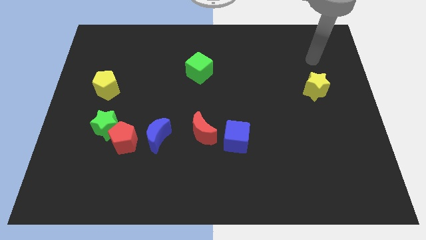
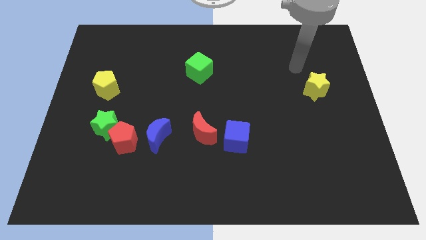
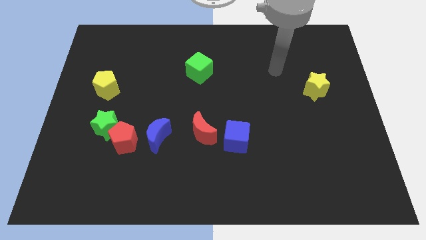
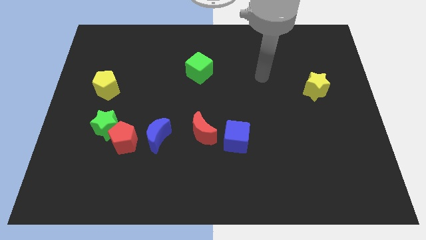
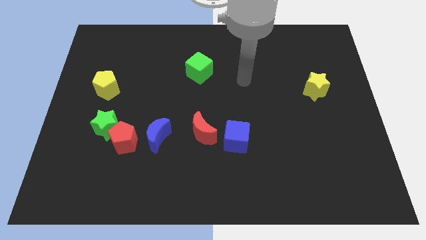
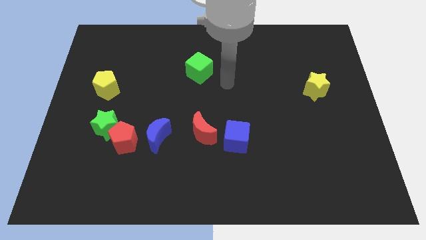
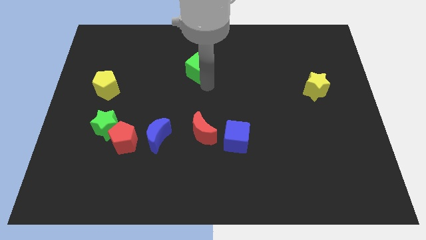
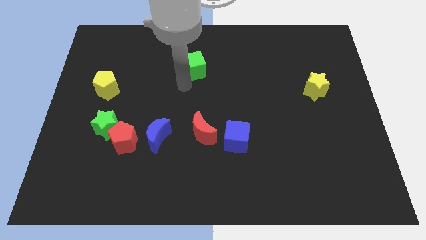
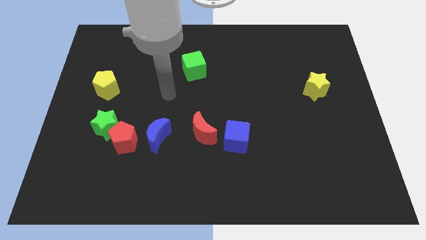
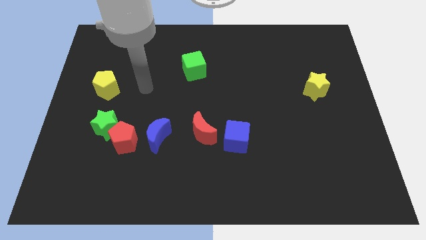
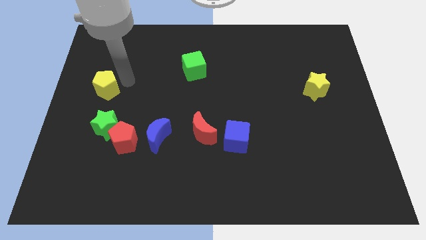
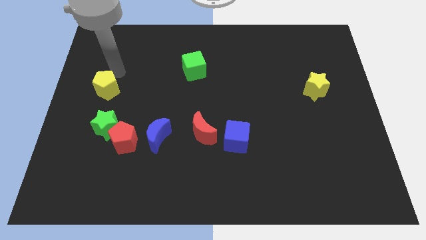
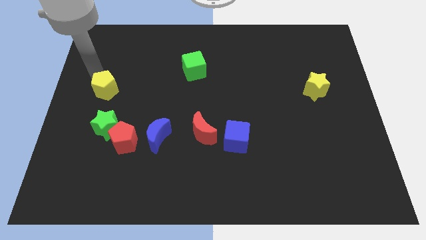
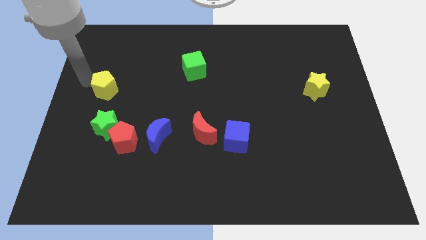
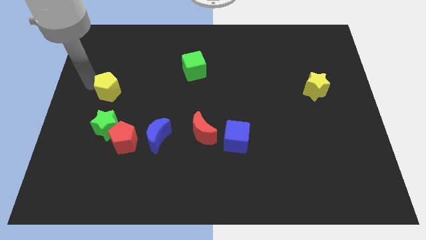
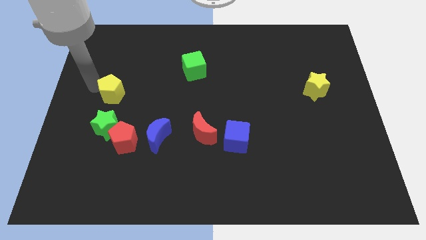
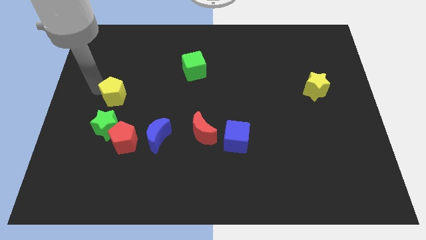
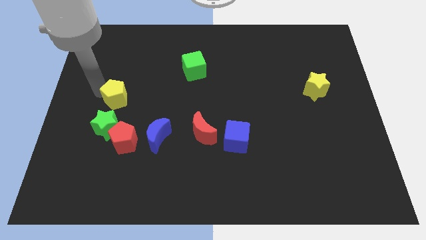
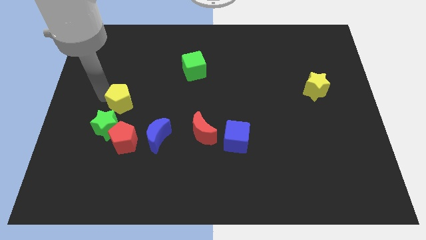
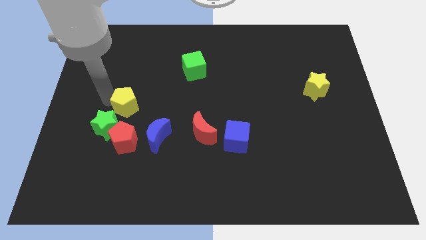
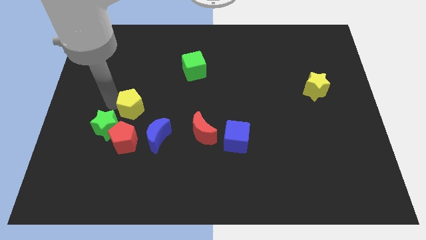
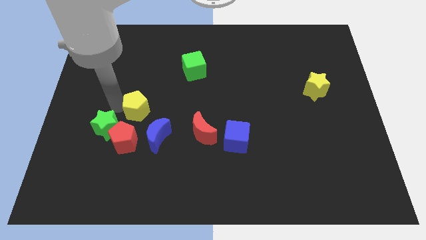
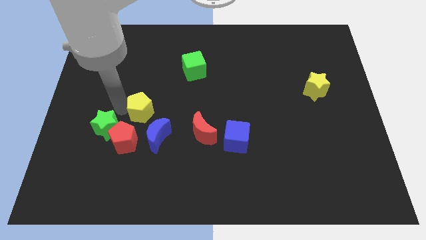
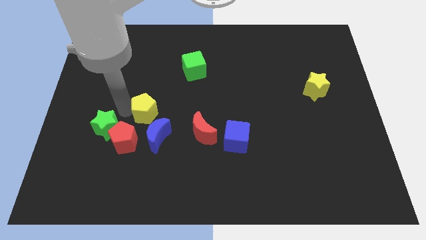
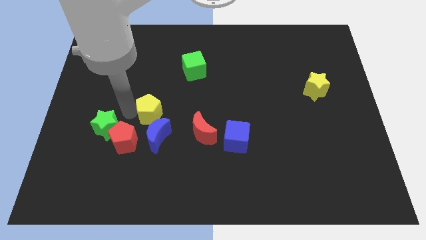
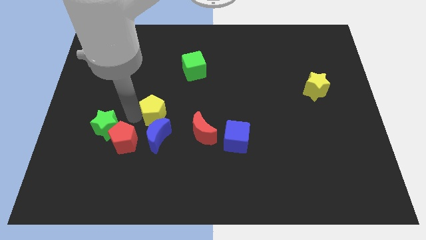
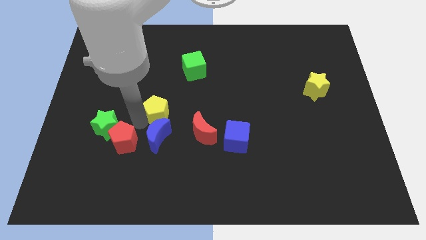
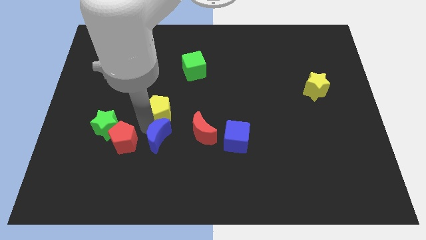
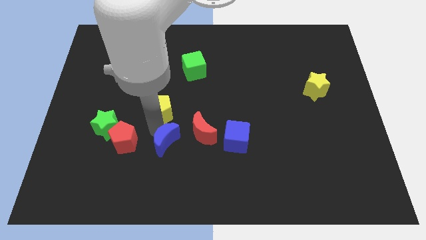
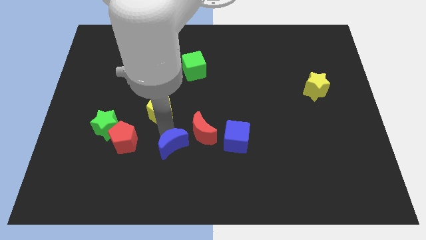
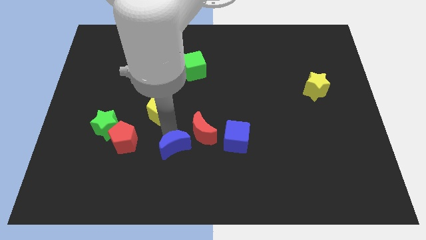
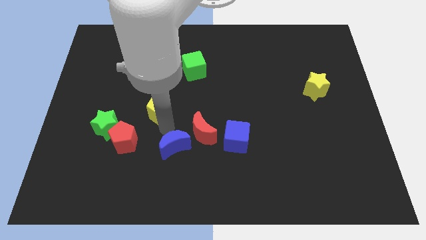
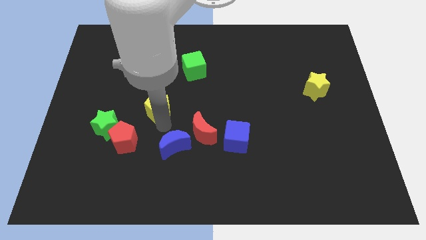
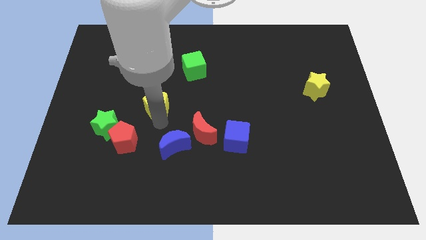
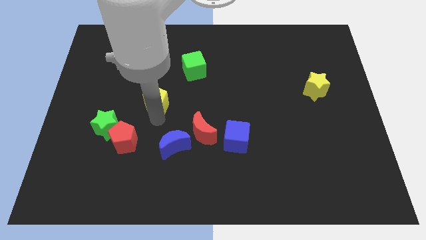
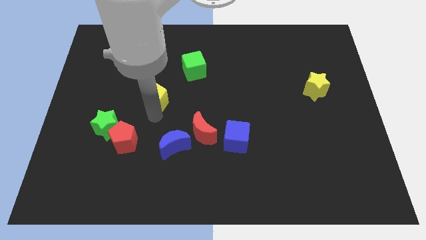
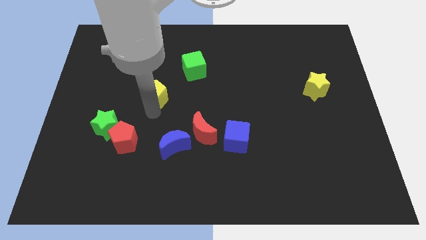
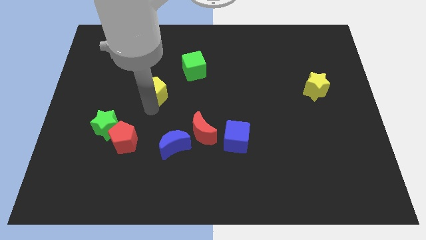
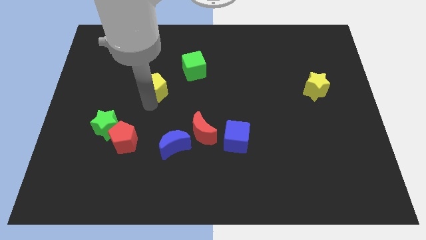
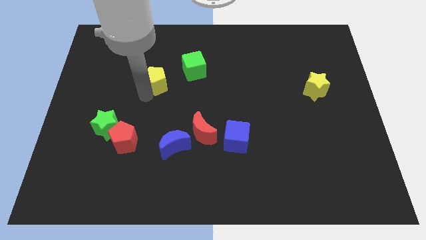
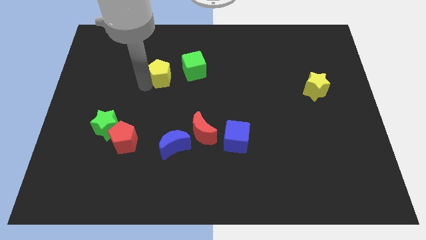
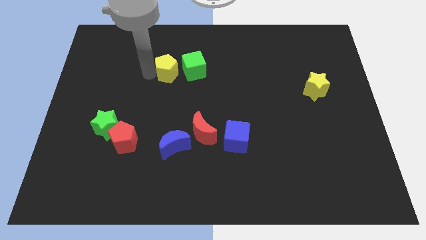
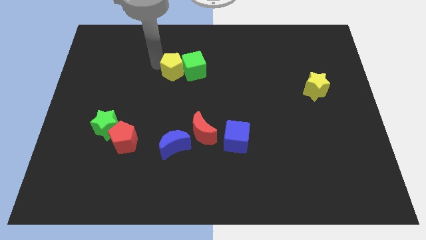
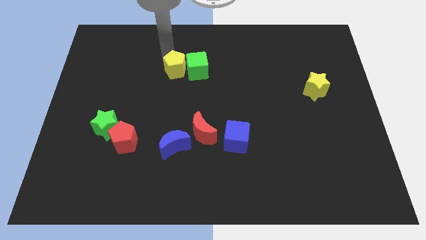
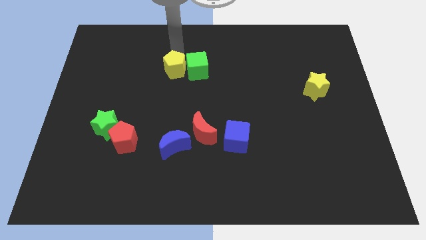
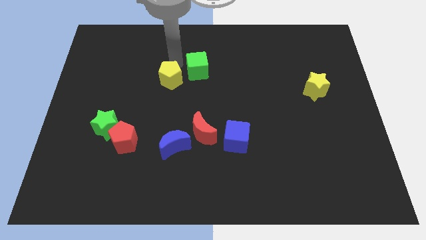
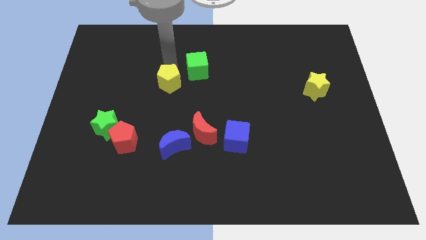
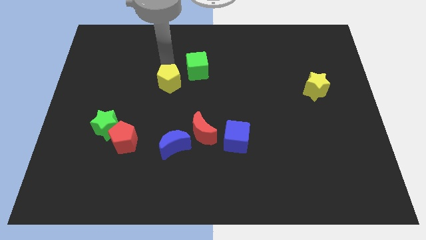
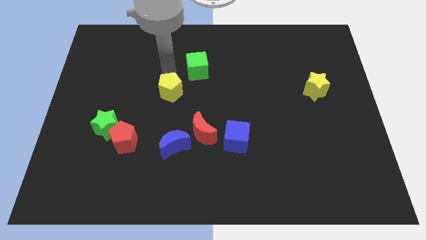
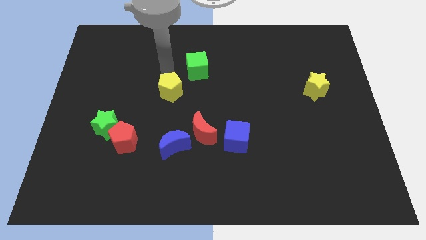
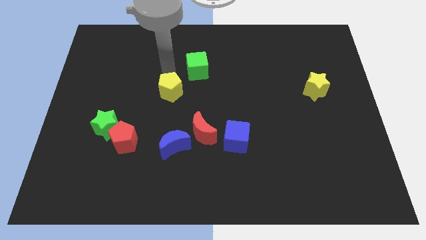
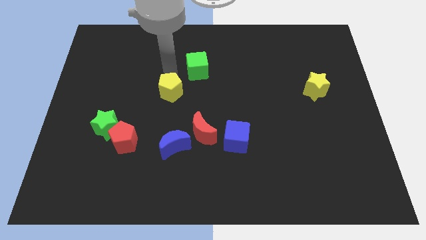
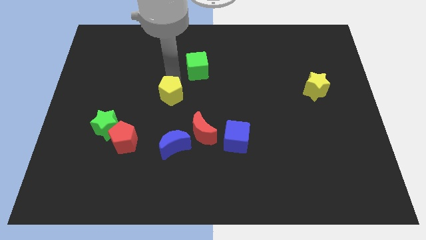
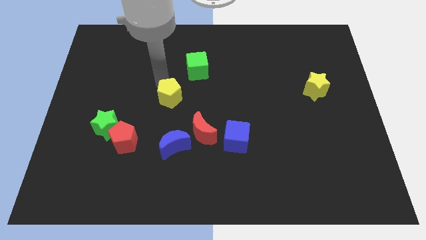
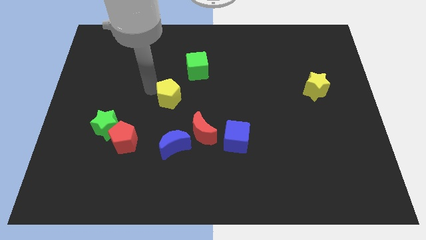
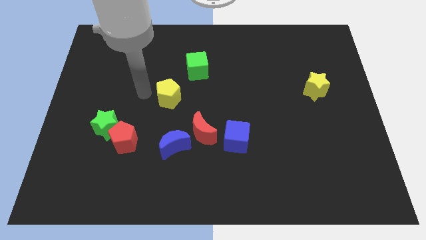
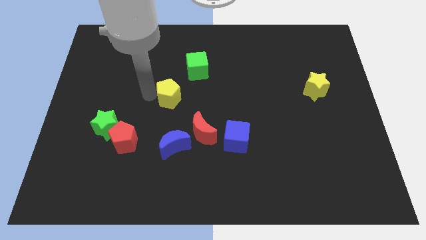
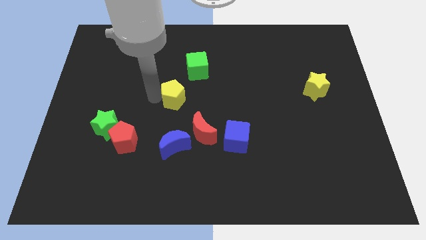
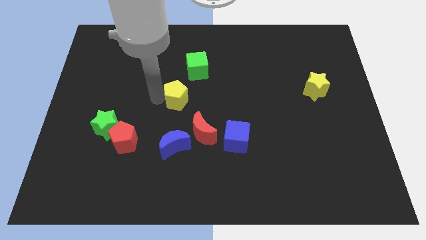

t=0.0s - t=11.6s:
put the yellow pentagon to the bottom side of the green cube

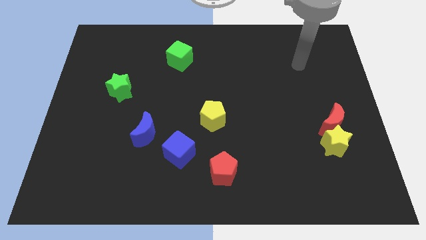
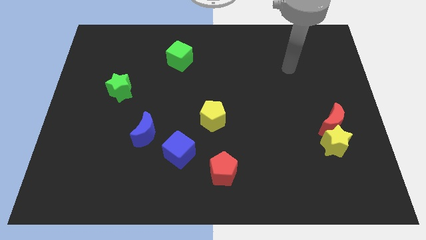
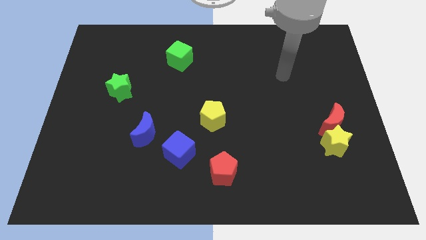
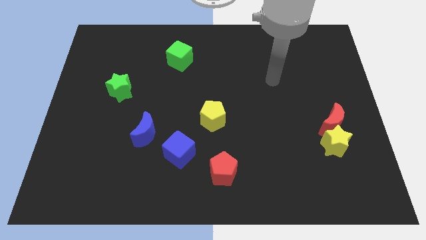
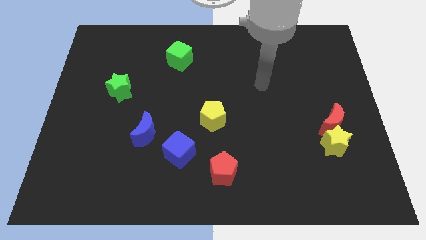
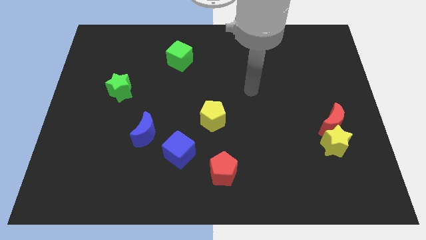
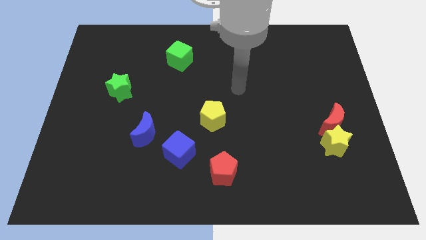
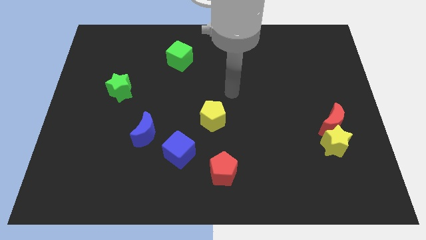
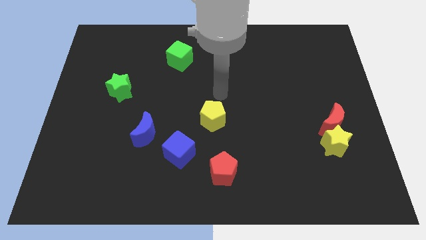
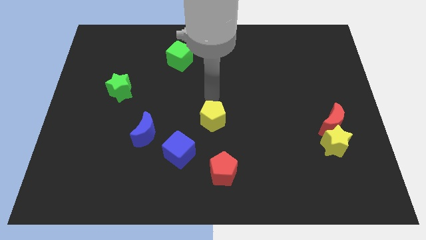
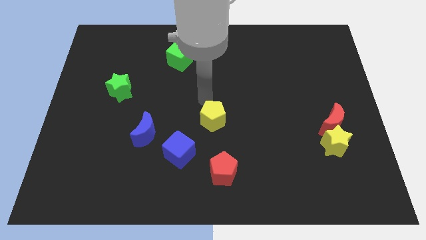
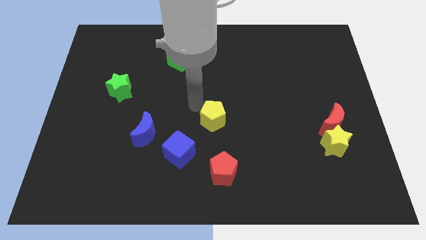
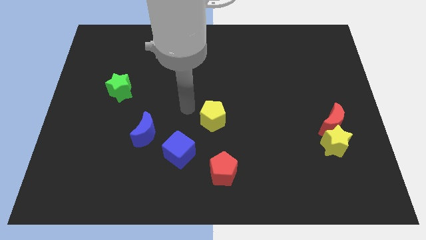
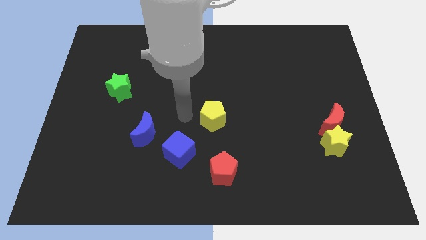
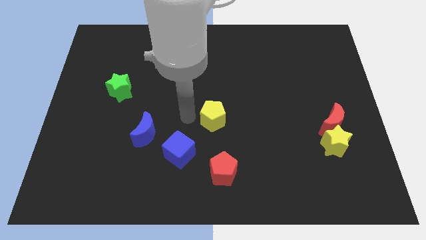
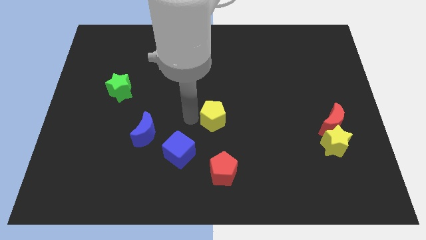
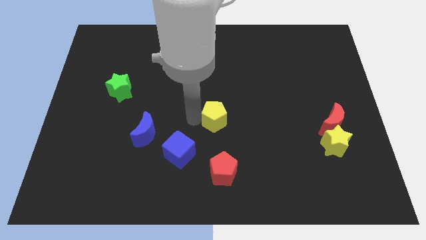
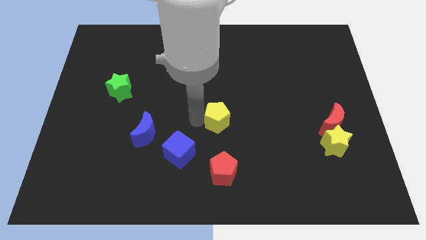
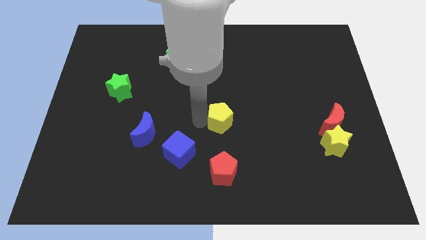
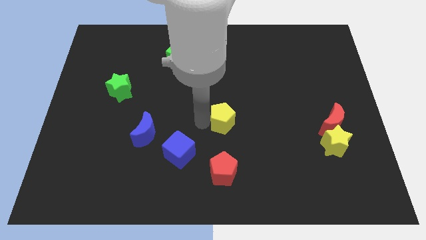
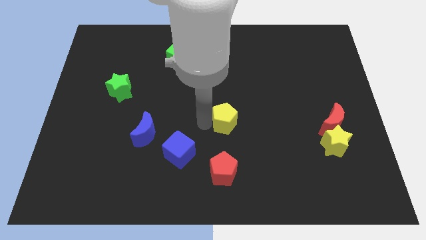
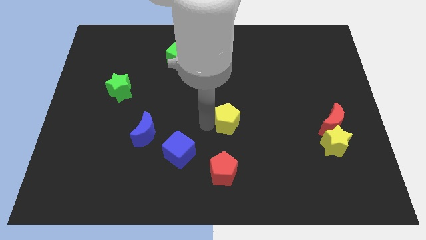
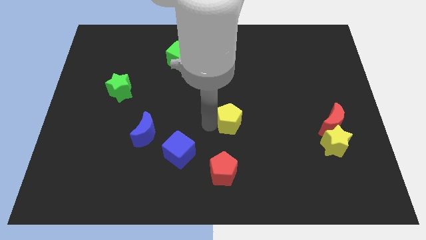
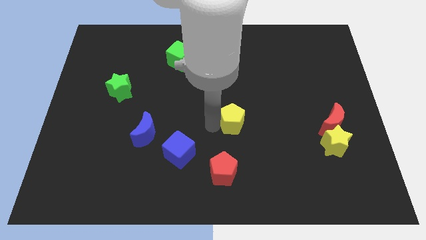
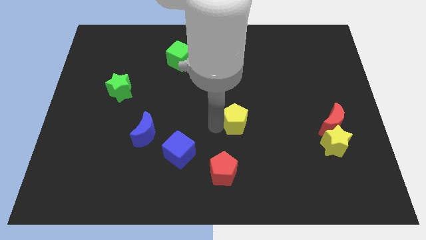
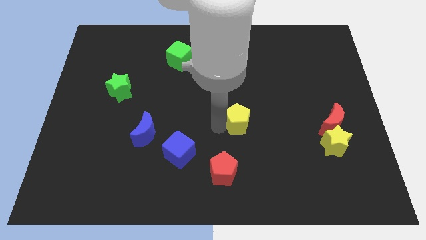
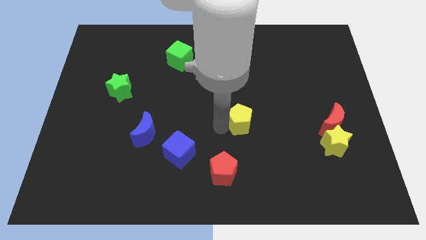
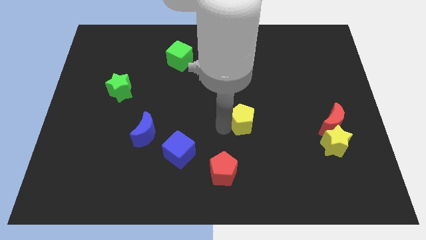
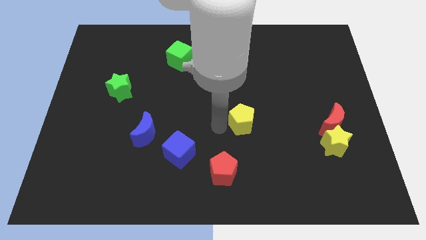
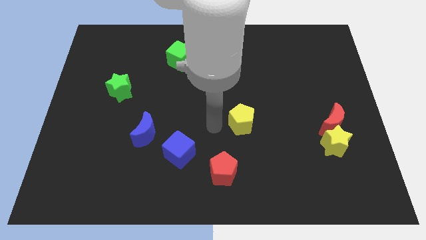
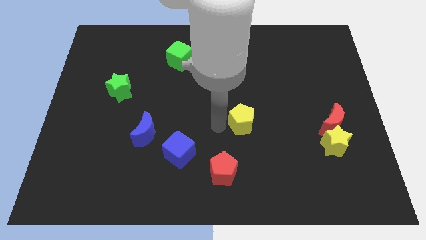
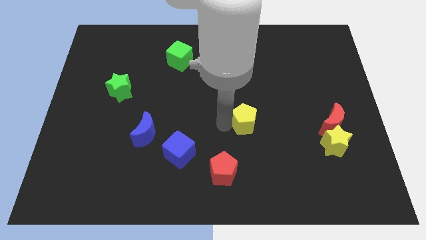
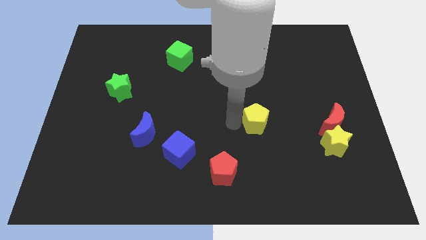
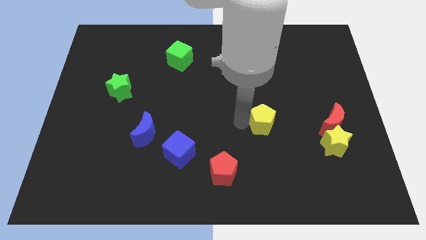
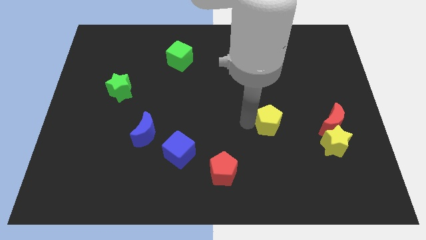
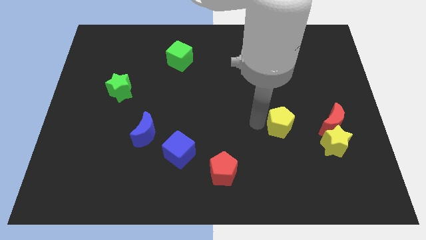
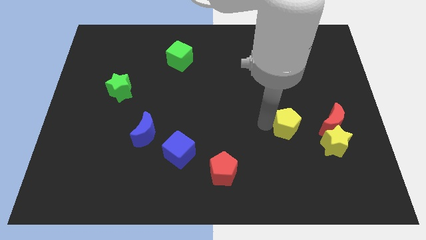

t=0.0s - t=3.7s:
move the yellow pentagon to the top left side of the yellow star
